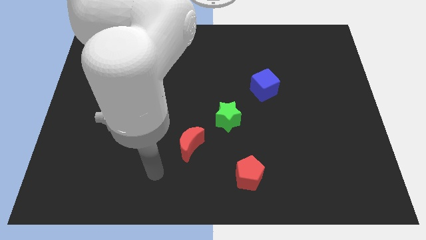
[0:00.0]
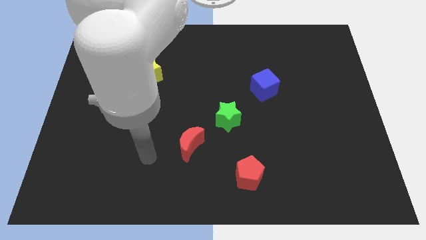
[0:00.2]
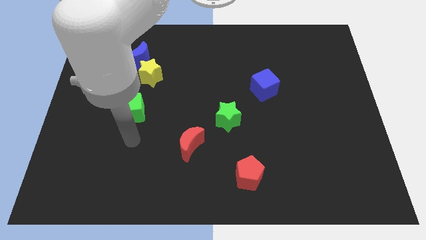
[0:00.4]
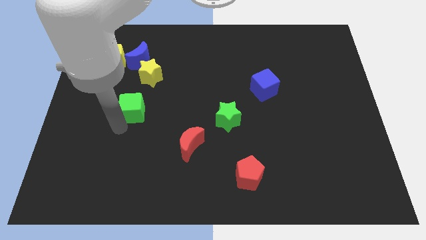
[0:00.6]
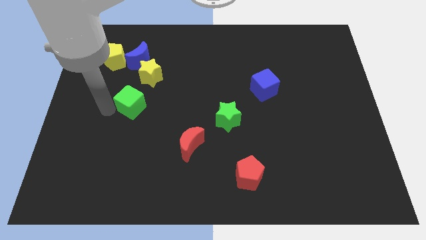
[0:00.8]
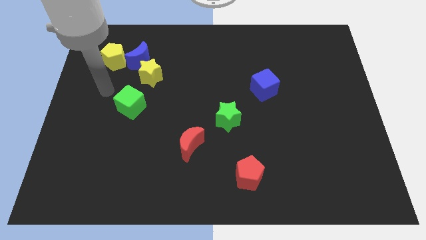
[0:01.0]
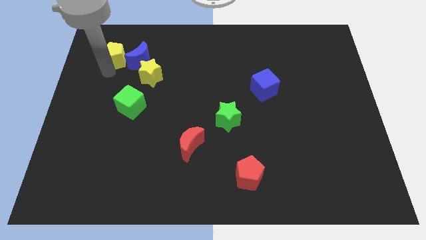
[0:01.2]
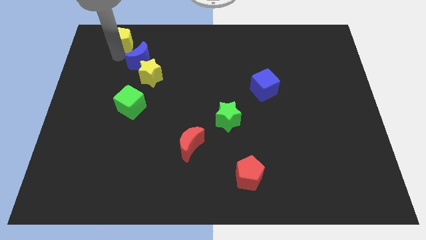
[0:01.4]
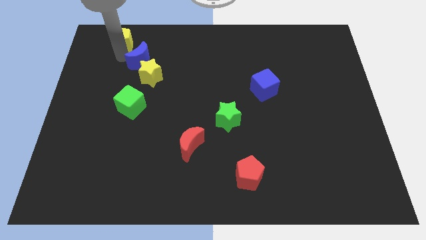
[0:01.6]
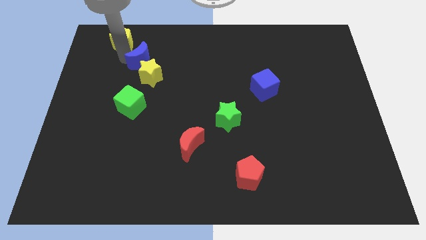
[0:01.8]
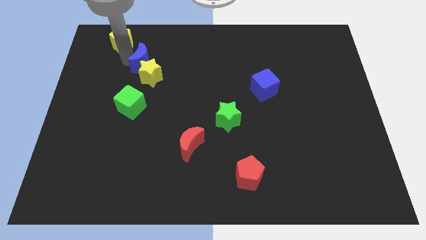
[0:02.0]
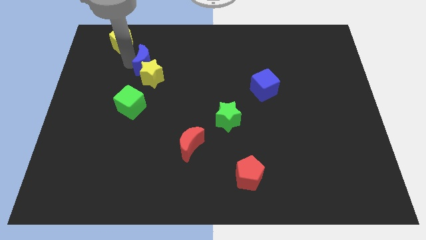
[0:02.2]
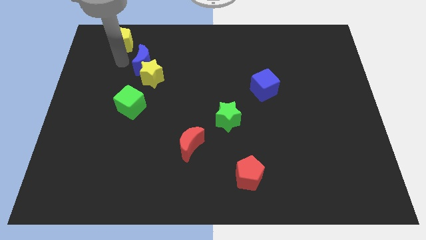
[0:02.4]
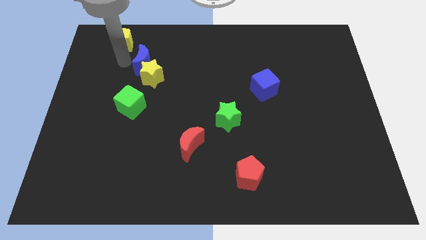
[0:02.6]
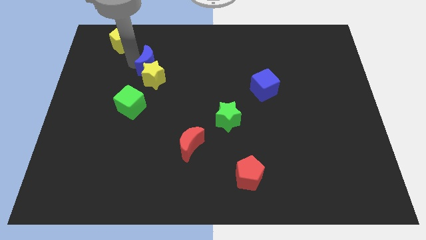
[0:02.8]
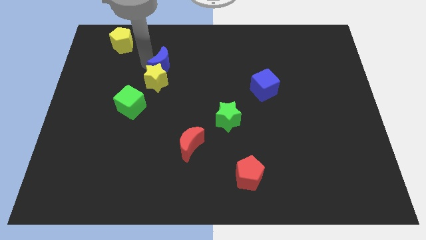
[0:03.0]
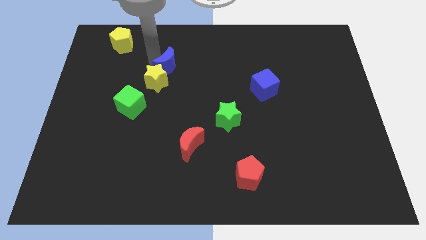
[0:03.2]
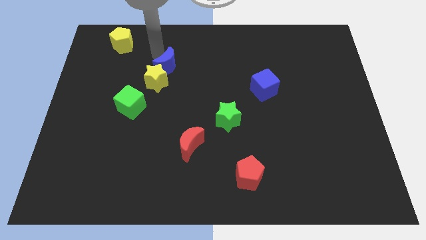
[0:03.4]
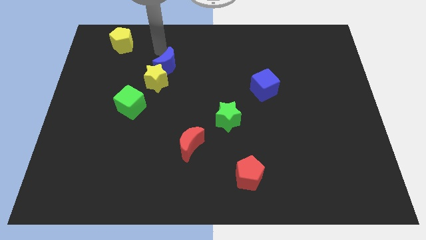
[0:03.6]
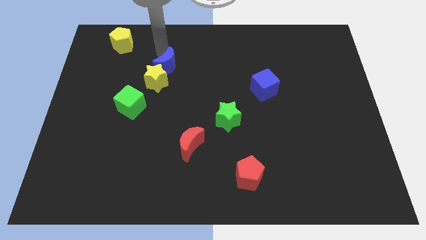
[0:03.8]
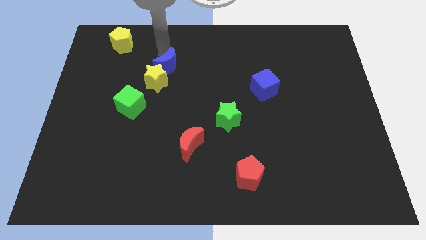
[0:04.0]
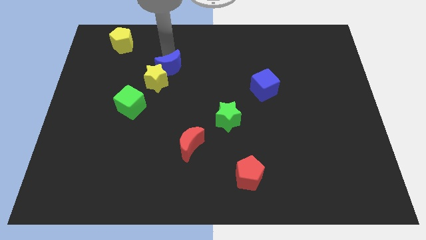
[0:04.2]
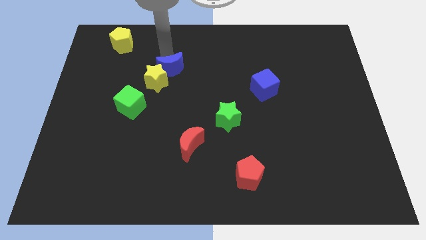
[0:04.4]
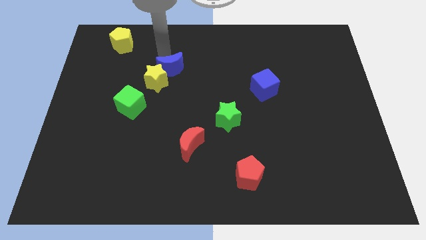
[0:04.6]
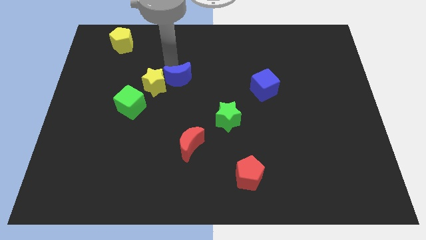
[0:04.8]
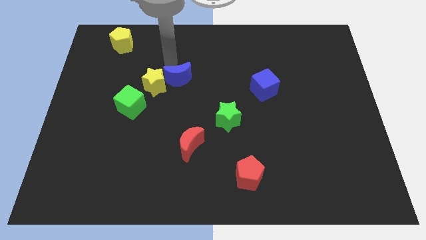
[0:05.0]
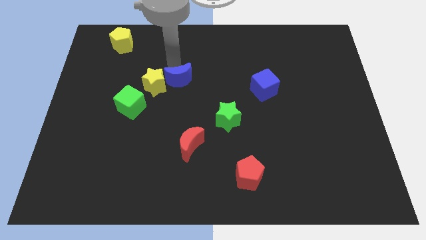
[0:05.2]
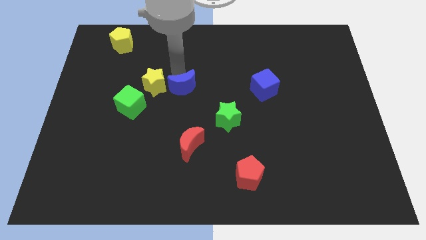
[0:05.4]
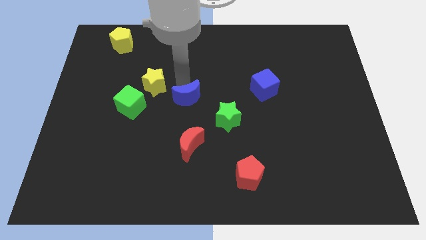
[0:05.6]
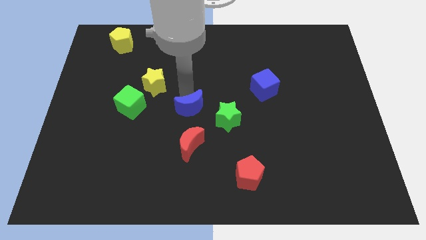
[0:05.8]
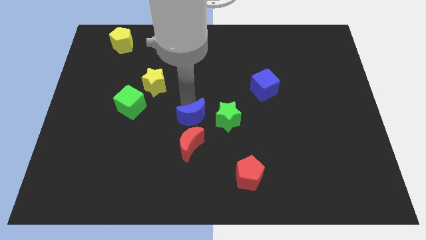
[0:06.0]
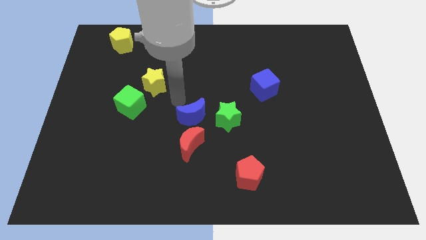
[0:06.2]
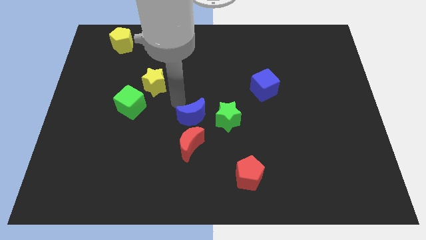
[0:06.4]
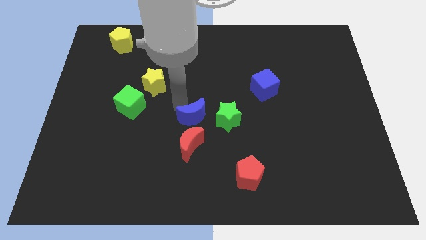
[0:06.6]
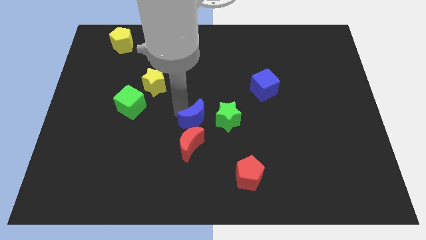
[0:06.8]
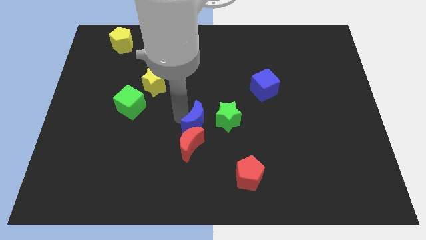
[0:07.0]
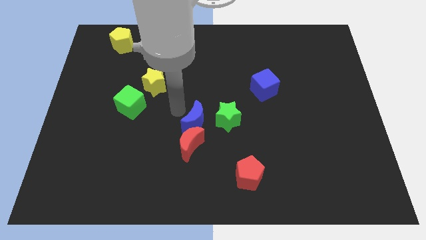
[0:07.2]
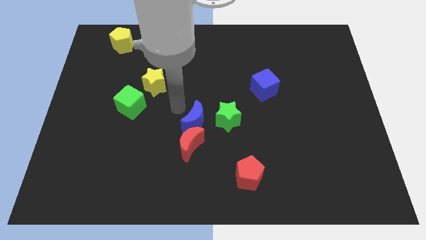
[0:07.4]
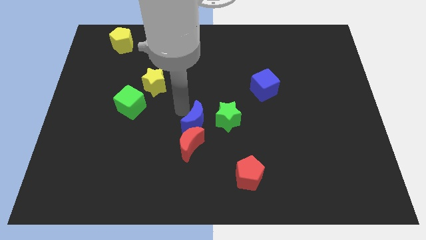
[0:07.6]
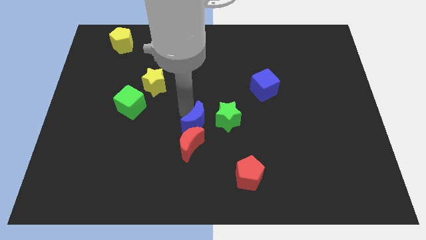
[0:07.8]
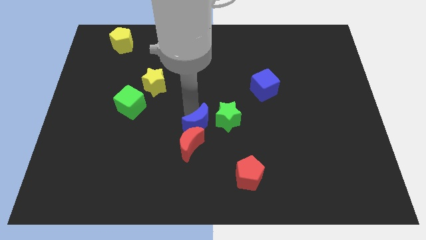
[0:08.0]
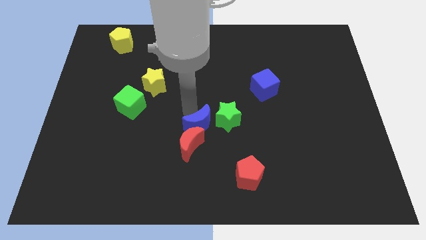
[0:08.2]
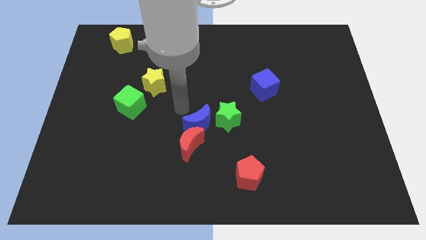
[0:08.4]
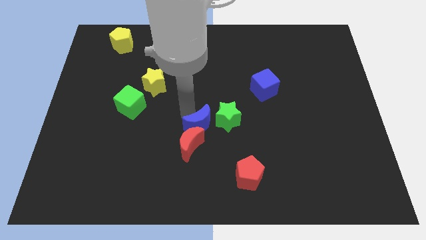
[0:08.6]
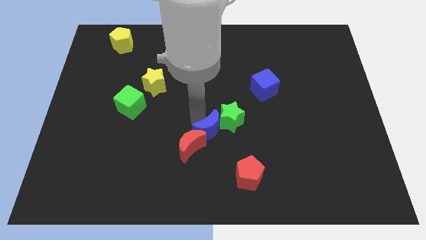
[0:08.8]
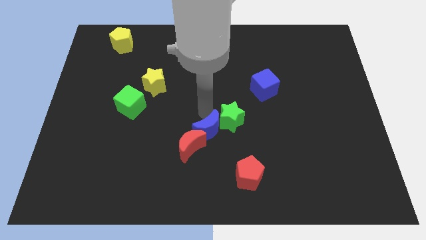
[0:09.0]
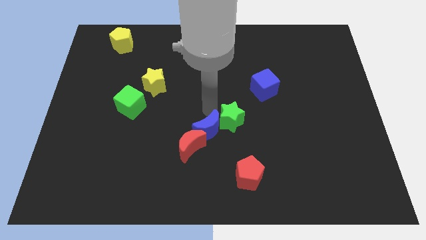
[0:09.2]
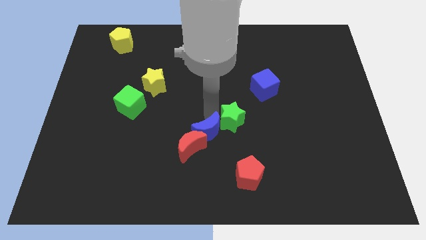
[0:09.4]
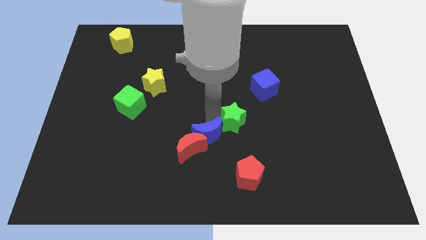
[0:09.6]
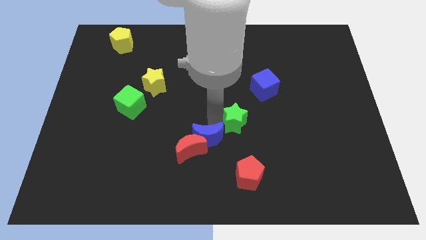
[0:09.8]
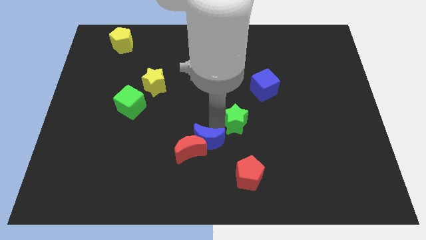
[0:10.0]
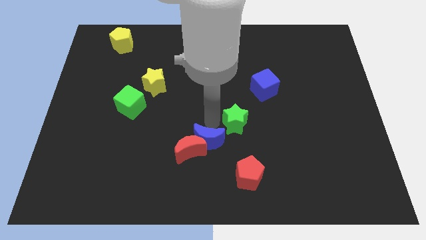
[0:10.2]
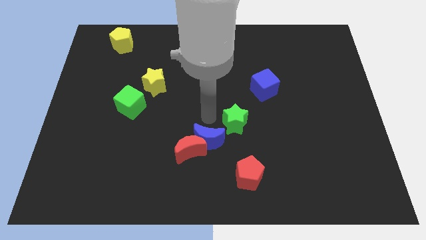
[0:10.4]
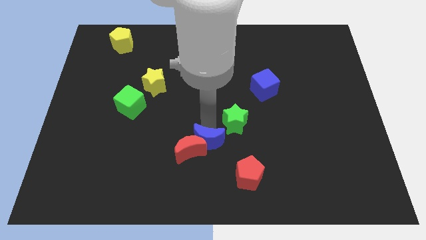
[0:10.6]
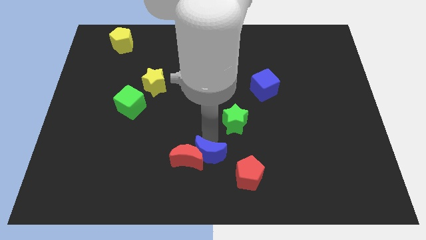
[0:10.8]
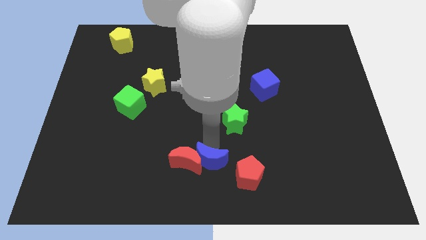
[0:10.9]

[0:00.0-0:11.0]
put the blue moon left of the red pentagon

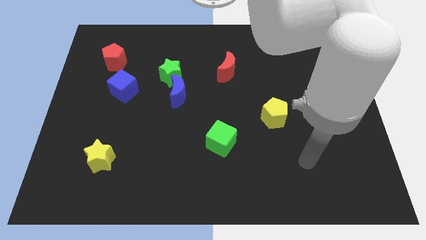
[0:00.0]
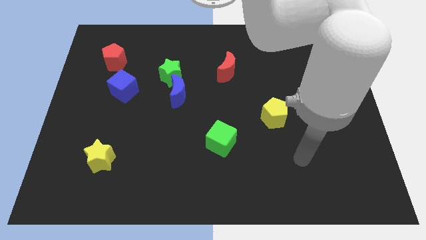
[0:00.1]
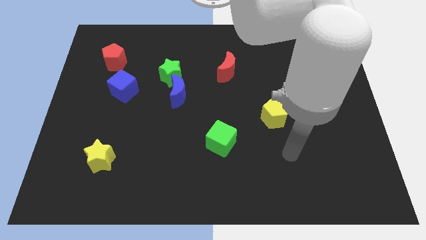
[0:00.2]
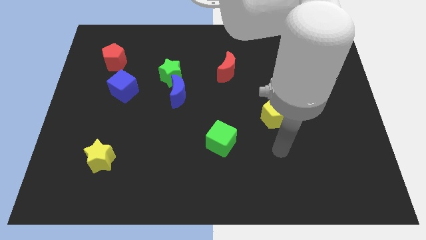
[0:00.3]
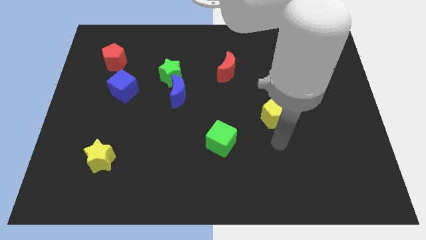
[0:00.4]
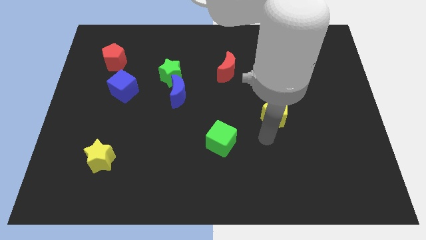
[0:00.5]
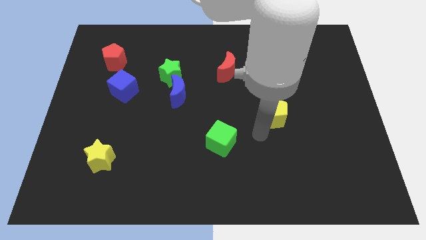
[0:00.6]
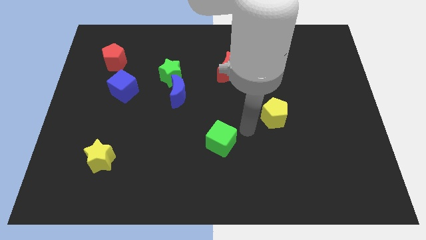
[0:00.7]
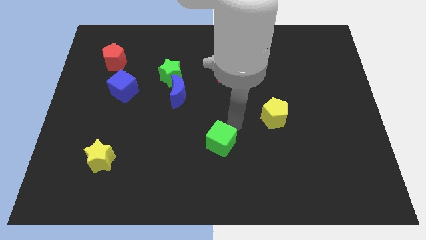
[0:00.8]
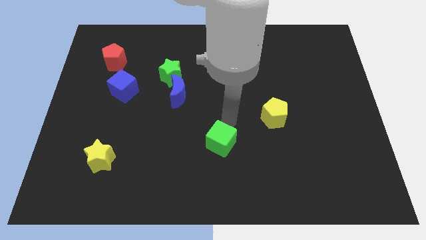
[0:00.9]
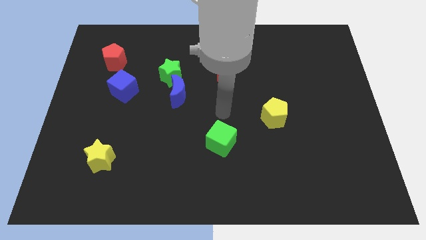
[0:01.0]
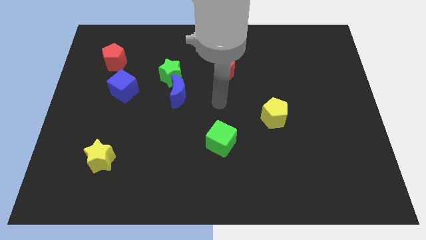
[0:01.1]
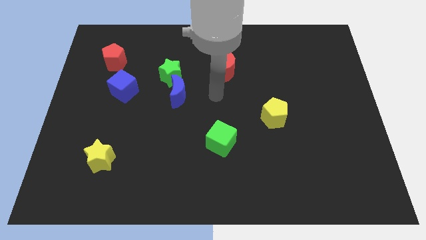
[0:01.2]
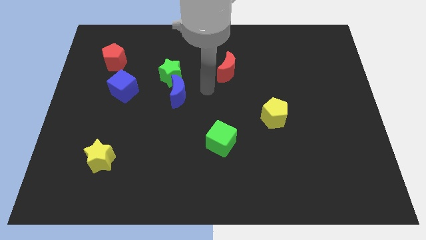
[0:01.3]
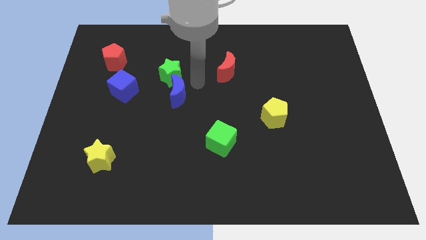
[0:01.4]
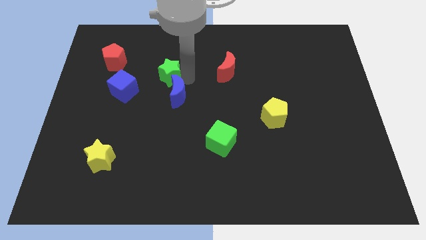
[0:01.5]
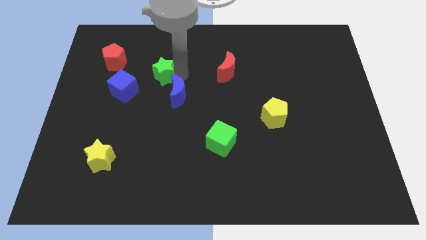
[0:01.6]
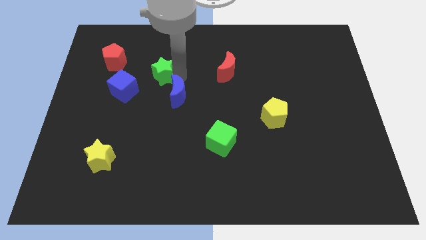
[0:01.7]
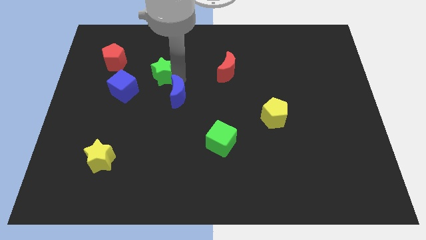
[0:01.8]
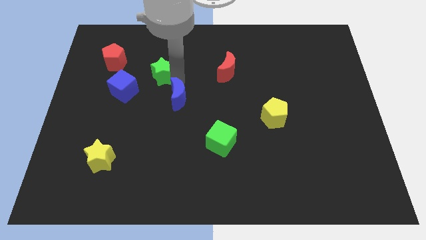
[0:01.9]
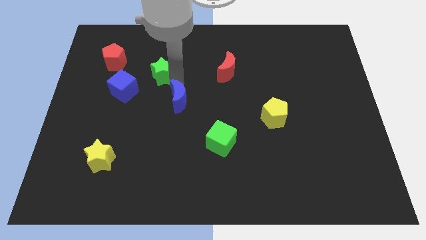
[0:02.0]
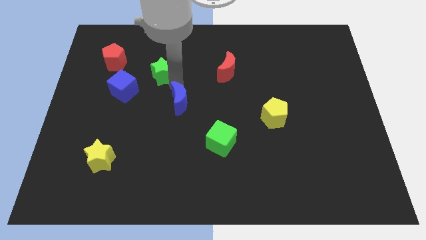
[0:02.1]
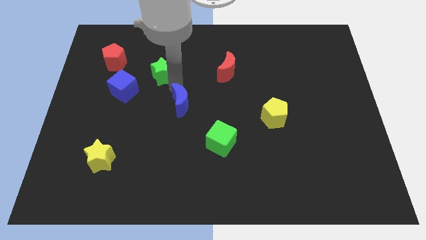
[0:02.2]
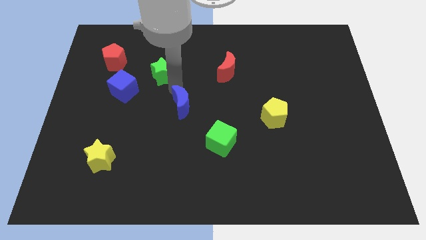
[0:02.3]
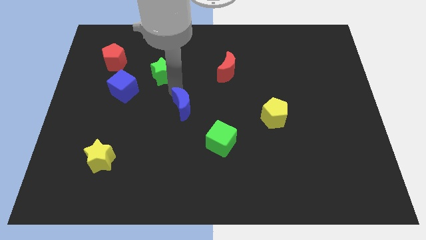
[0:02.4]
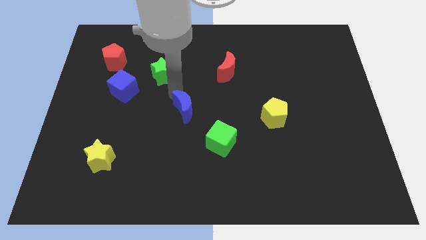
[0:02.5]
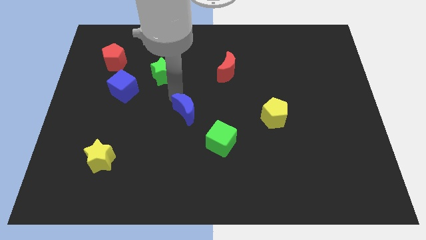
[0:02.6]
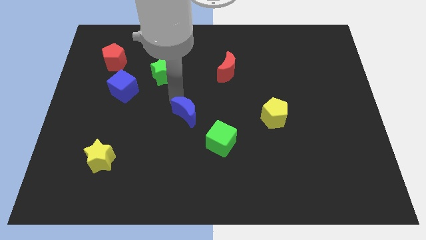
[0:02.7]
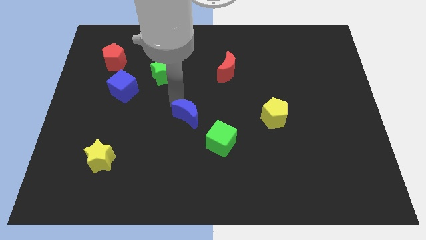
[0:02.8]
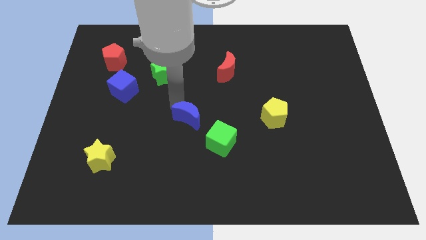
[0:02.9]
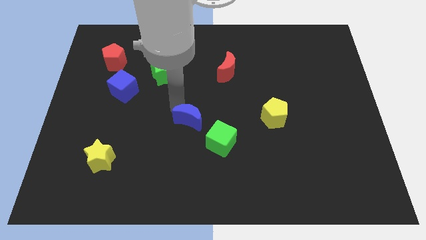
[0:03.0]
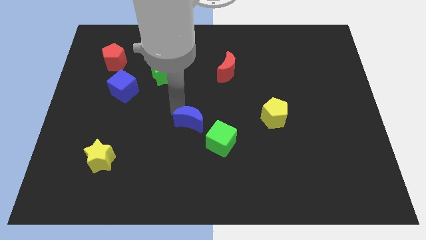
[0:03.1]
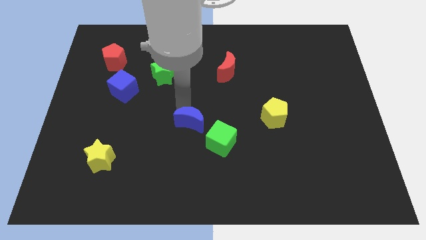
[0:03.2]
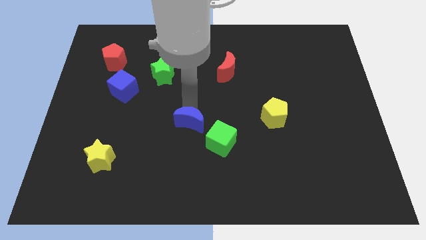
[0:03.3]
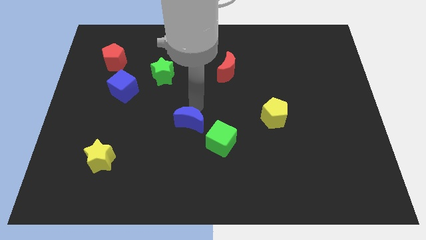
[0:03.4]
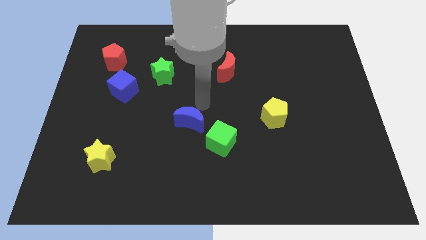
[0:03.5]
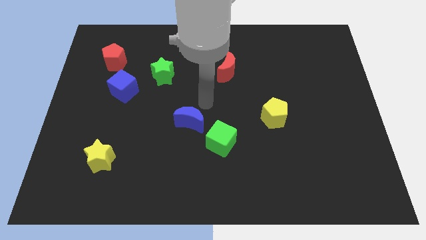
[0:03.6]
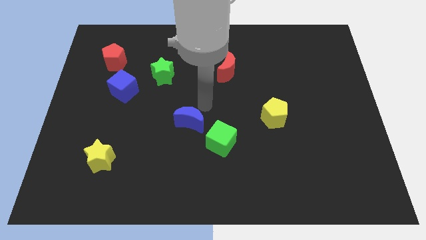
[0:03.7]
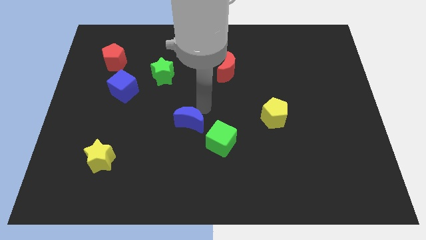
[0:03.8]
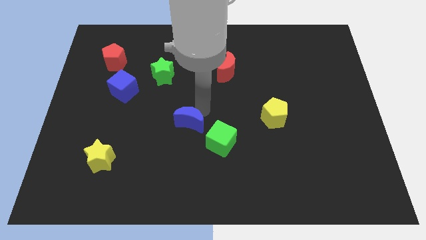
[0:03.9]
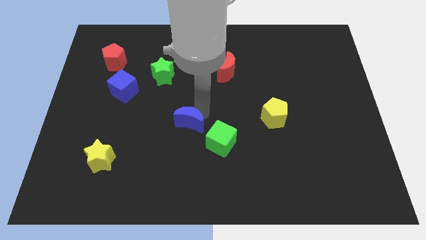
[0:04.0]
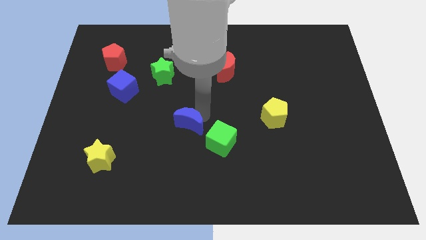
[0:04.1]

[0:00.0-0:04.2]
move the blue moon left of the green cube
